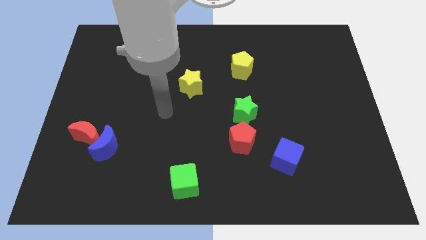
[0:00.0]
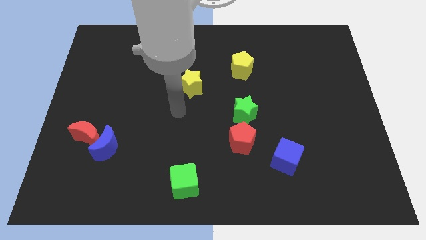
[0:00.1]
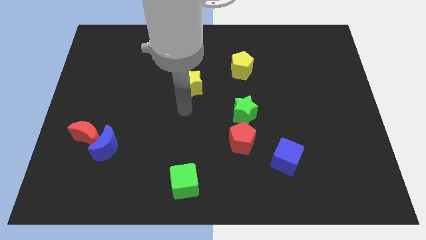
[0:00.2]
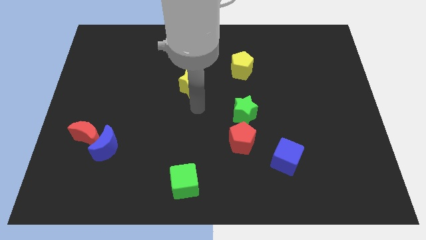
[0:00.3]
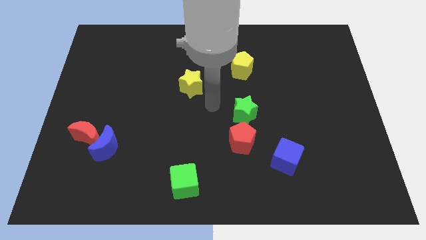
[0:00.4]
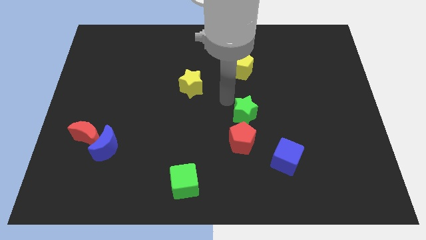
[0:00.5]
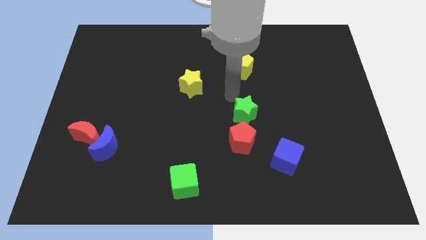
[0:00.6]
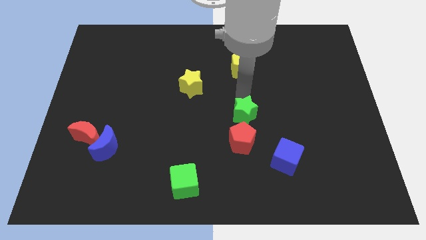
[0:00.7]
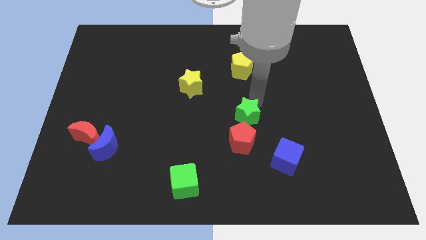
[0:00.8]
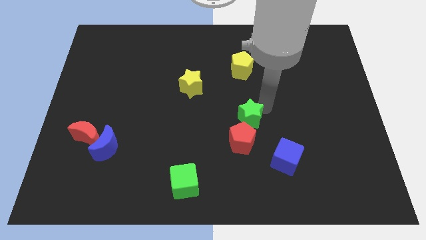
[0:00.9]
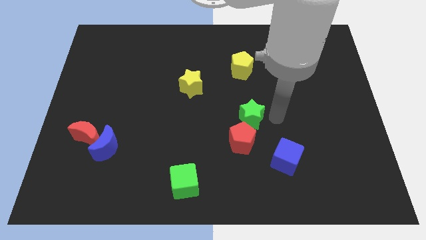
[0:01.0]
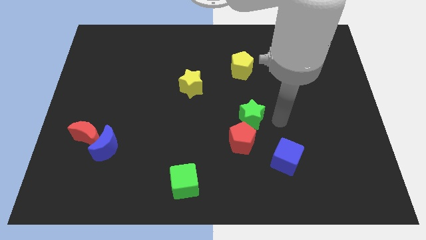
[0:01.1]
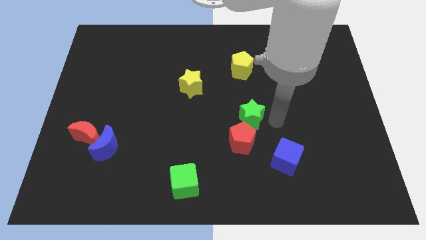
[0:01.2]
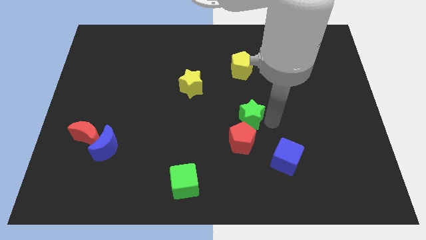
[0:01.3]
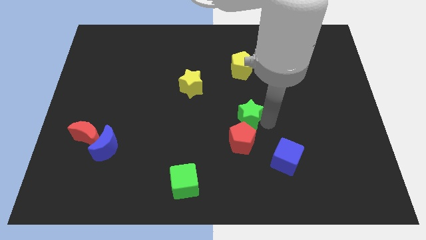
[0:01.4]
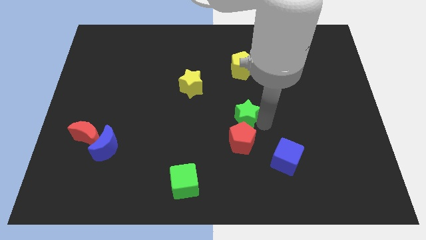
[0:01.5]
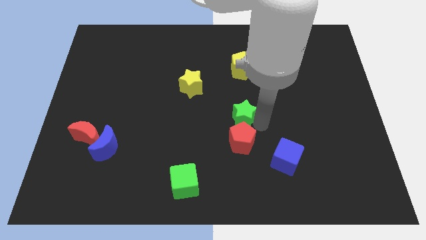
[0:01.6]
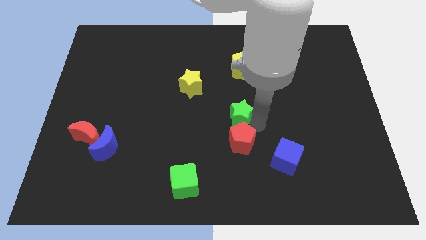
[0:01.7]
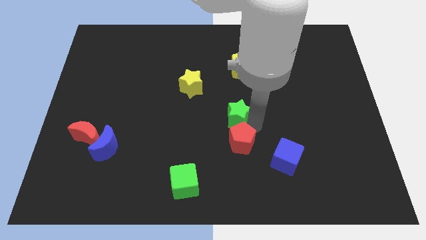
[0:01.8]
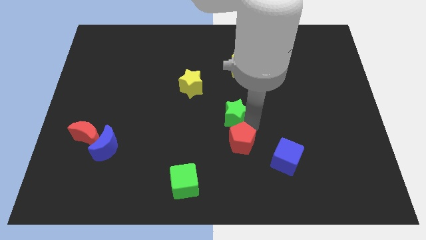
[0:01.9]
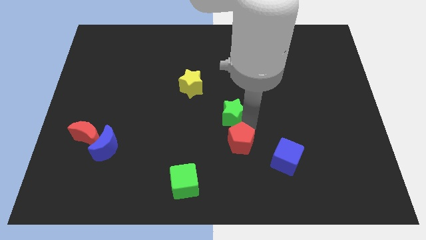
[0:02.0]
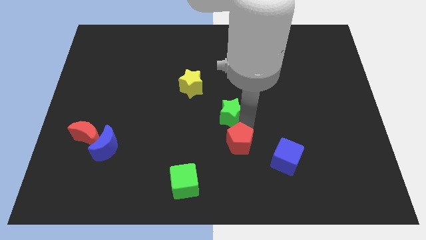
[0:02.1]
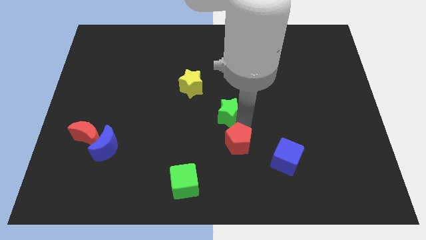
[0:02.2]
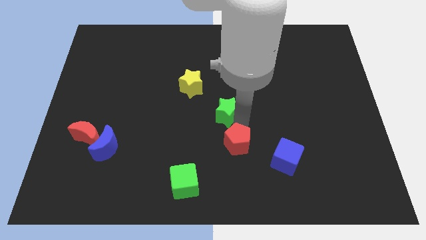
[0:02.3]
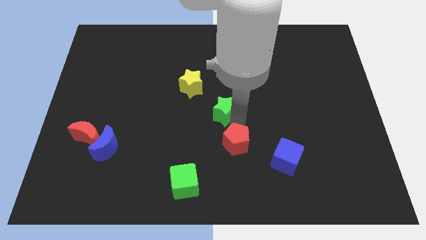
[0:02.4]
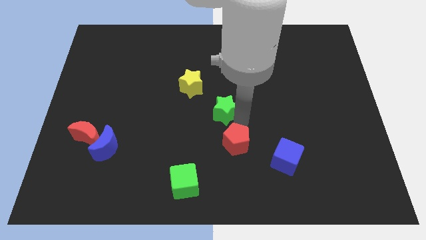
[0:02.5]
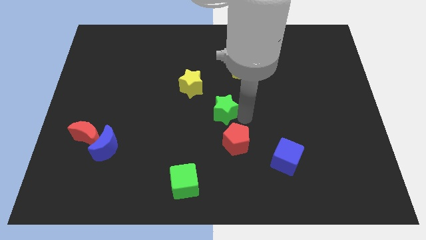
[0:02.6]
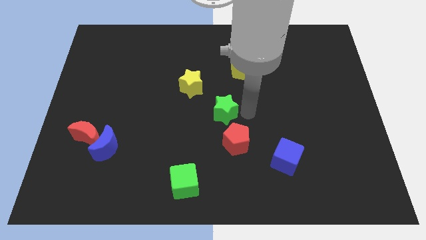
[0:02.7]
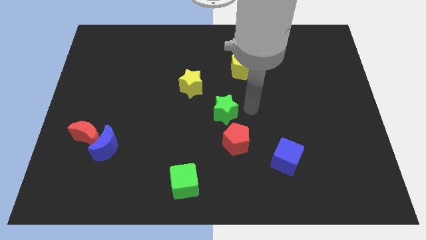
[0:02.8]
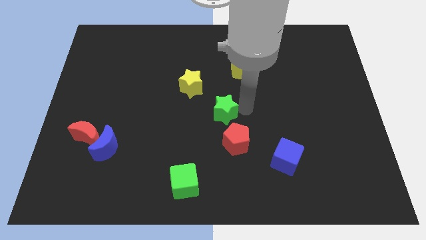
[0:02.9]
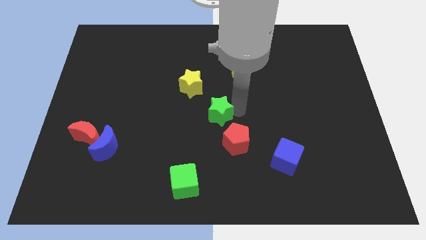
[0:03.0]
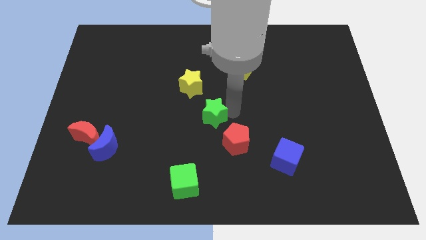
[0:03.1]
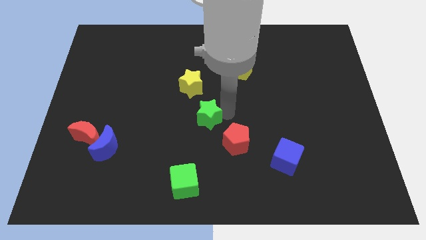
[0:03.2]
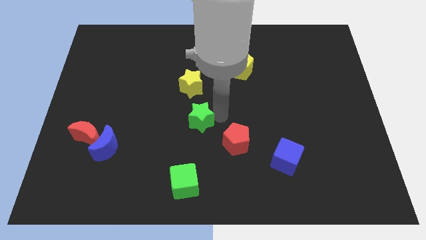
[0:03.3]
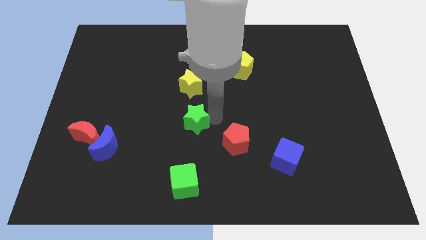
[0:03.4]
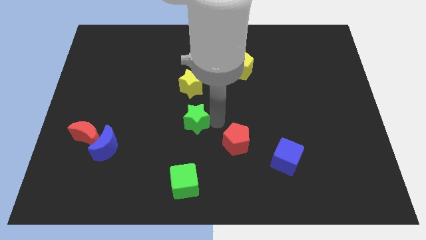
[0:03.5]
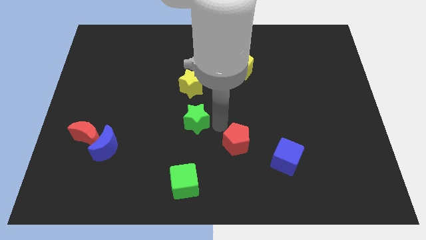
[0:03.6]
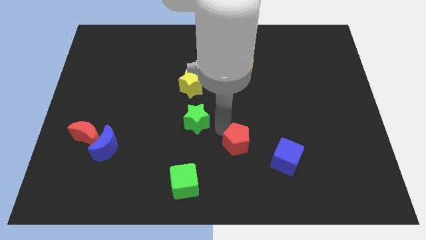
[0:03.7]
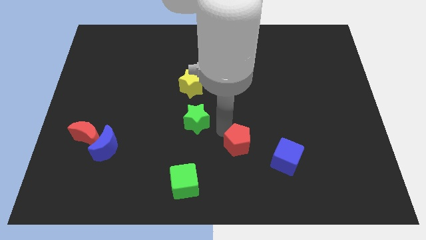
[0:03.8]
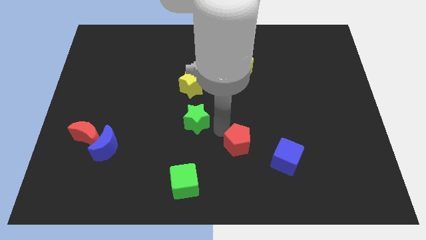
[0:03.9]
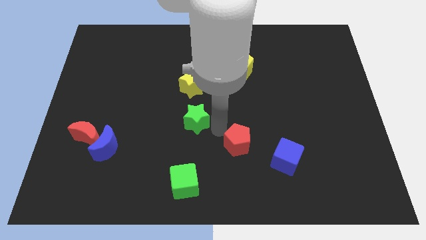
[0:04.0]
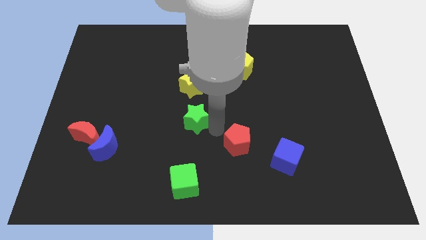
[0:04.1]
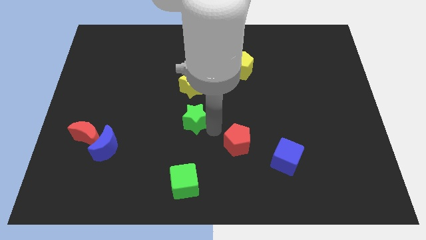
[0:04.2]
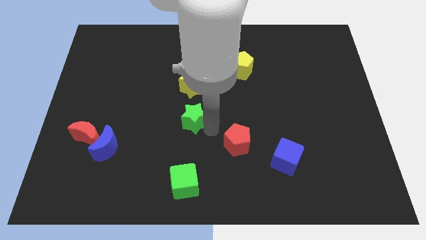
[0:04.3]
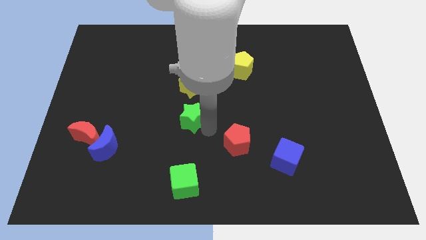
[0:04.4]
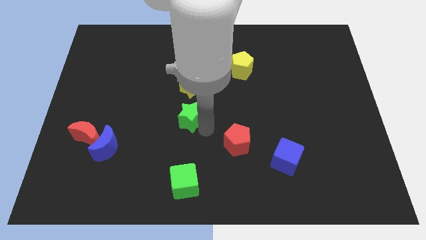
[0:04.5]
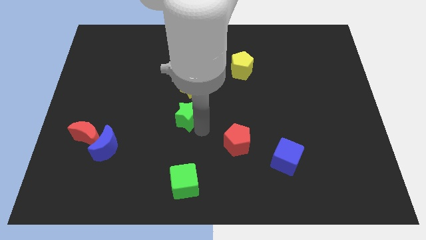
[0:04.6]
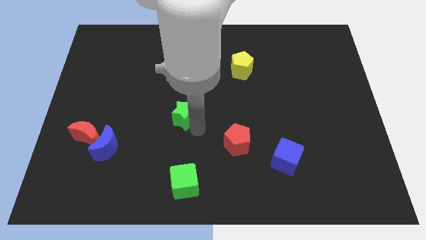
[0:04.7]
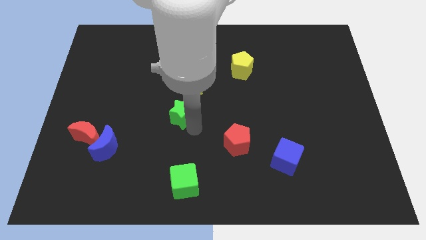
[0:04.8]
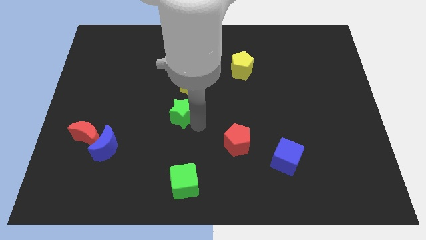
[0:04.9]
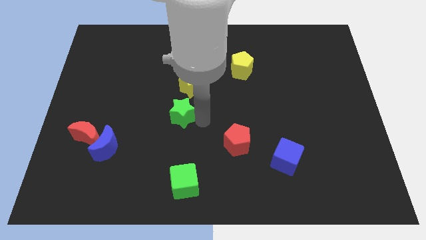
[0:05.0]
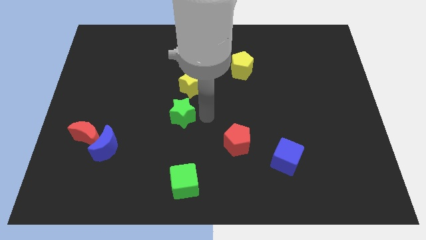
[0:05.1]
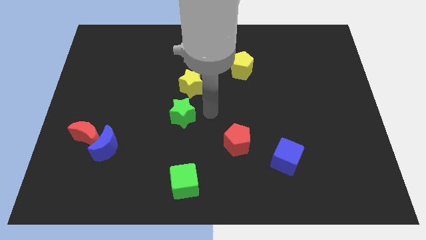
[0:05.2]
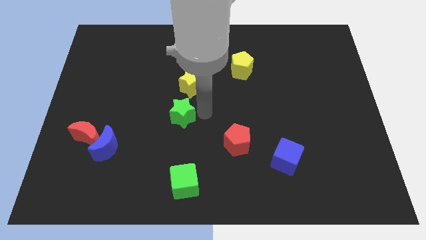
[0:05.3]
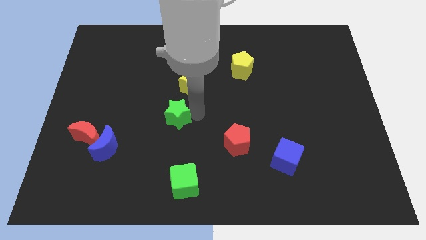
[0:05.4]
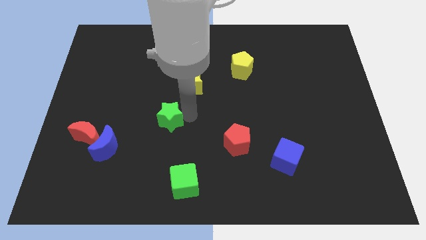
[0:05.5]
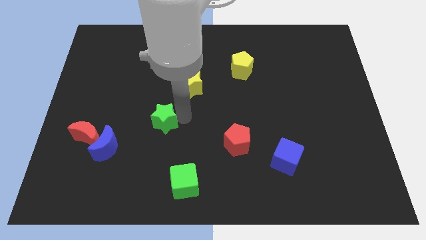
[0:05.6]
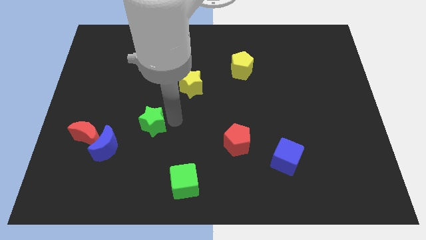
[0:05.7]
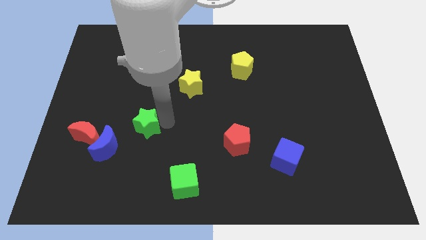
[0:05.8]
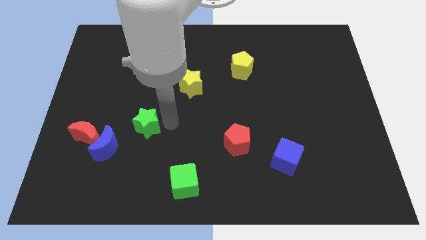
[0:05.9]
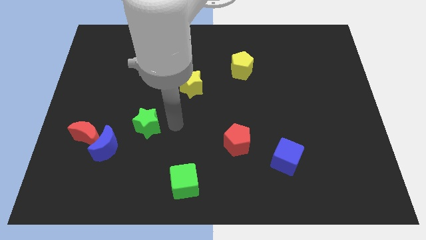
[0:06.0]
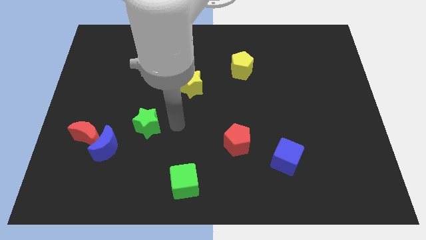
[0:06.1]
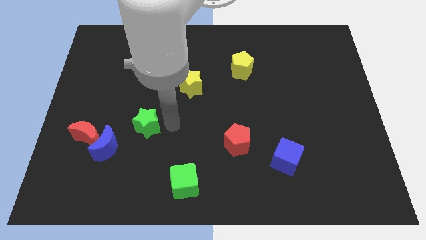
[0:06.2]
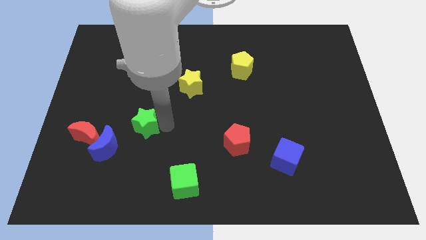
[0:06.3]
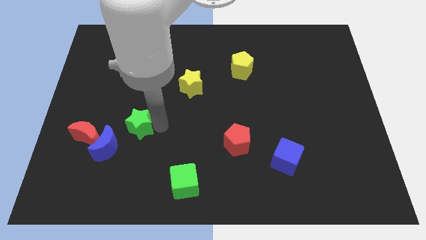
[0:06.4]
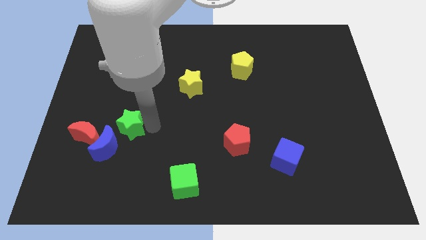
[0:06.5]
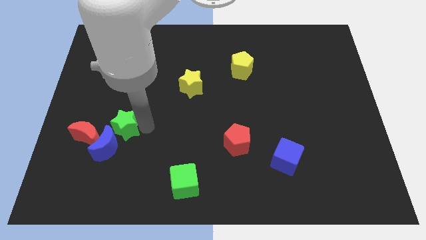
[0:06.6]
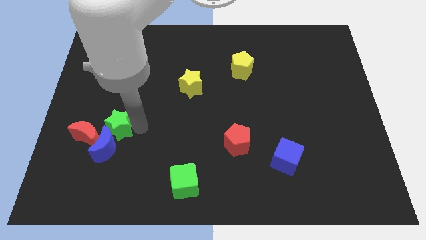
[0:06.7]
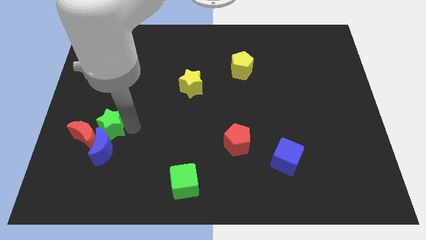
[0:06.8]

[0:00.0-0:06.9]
slide the green star to the red moon
